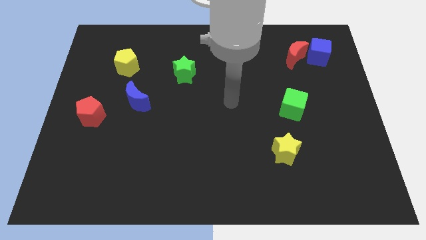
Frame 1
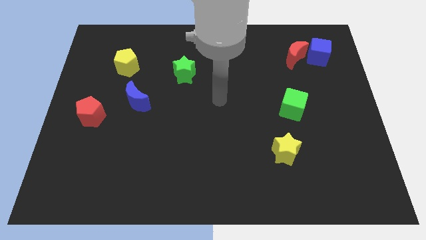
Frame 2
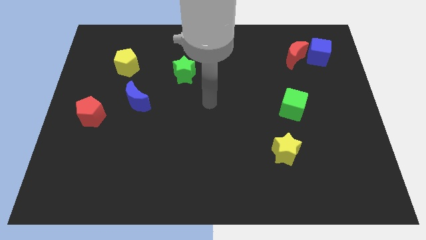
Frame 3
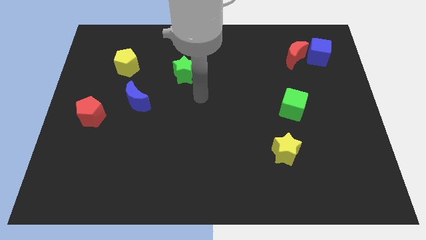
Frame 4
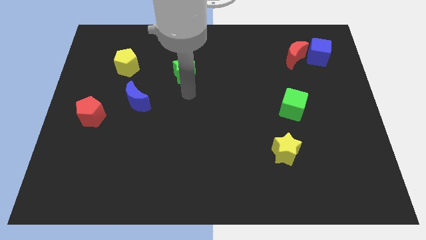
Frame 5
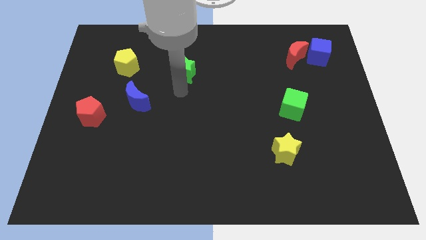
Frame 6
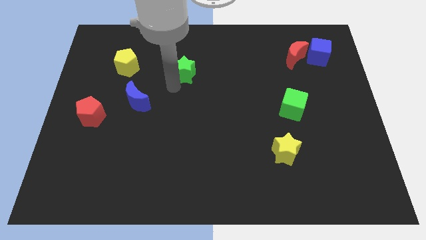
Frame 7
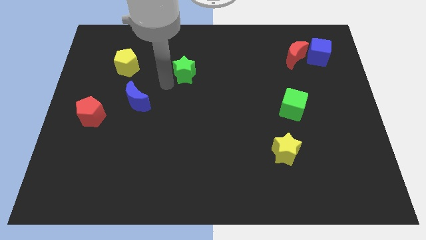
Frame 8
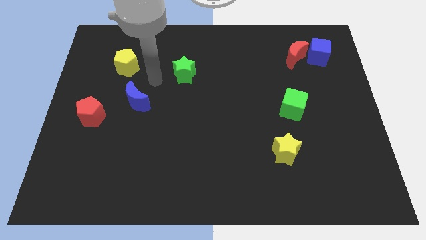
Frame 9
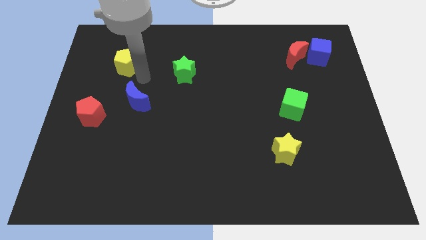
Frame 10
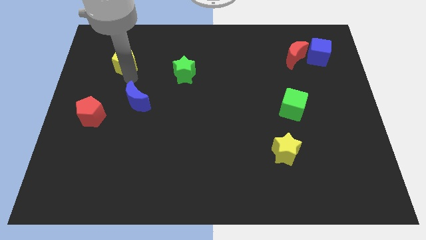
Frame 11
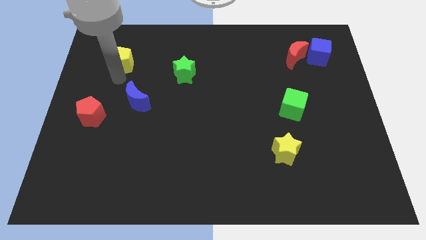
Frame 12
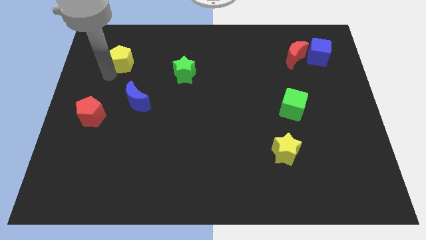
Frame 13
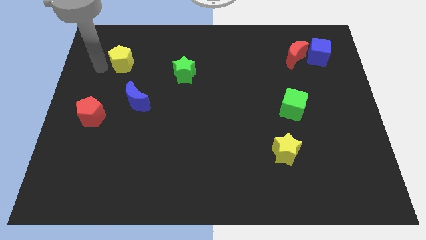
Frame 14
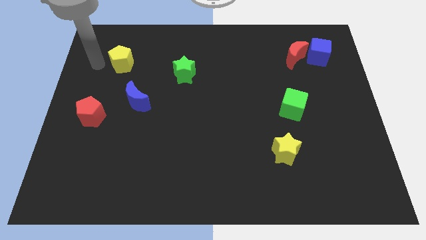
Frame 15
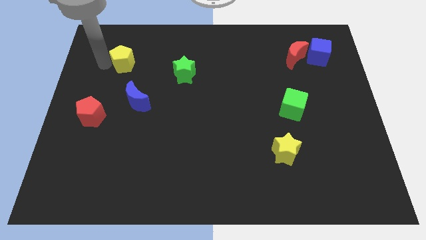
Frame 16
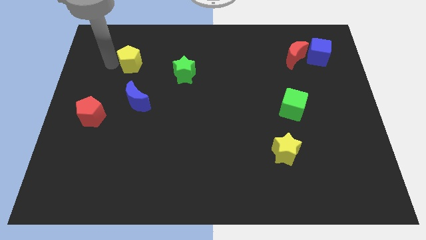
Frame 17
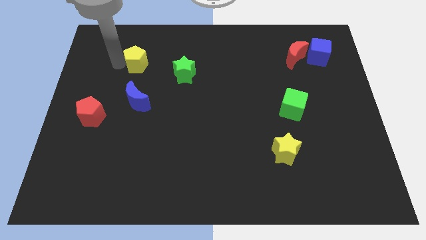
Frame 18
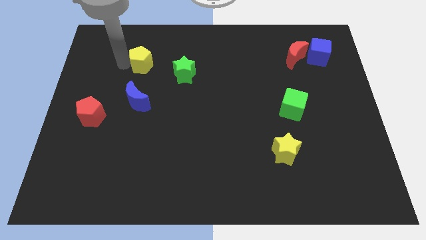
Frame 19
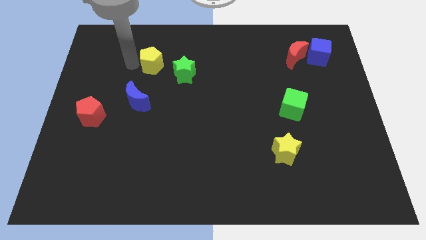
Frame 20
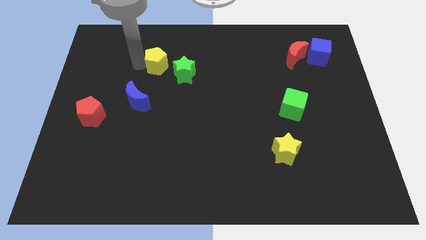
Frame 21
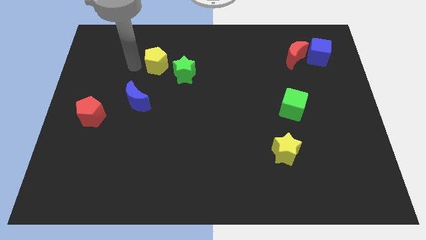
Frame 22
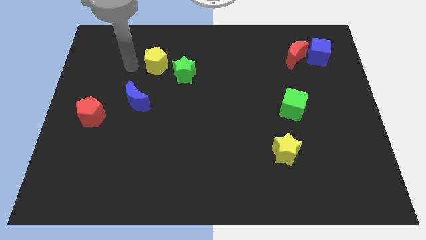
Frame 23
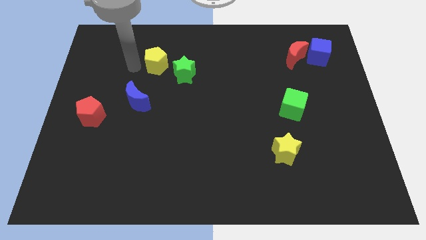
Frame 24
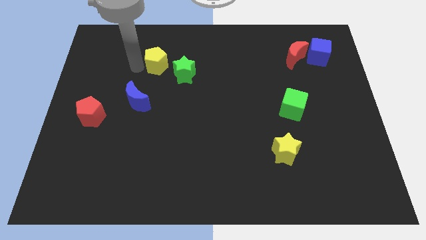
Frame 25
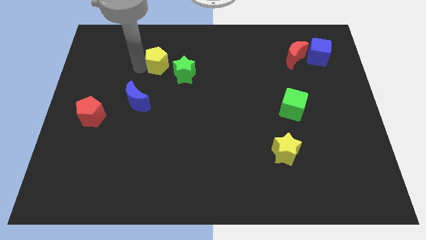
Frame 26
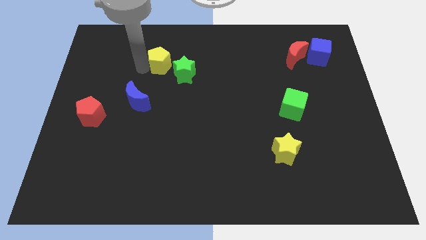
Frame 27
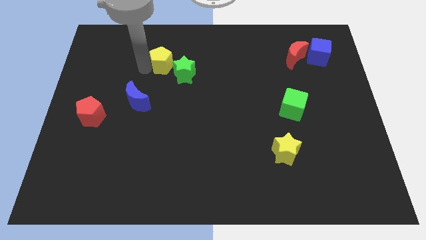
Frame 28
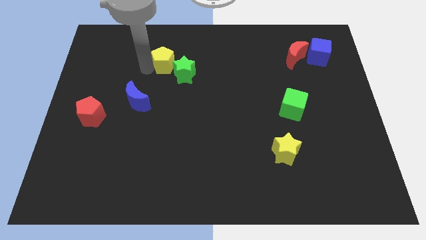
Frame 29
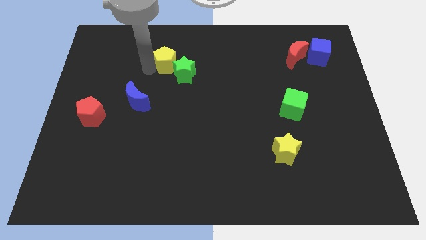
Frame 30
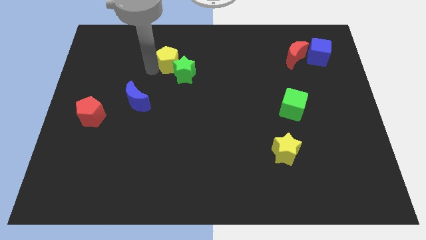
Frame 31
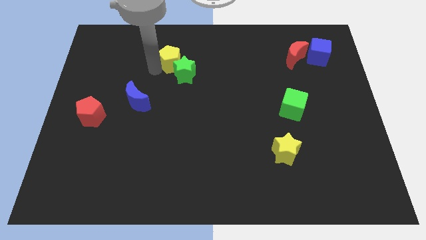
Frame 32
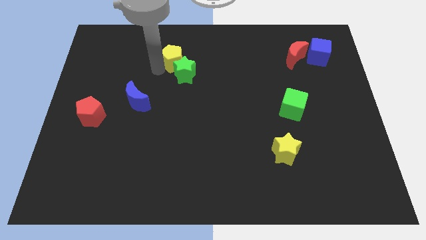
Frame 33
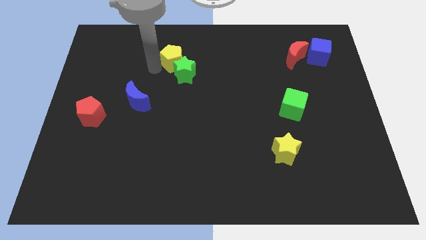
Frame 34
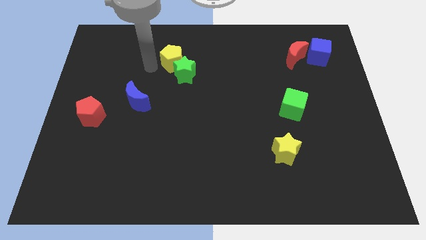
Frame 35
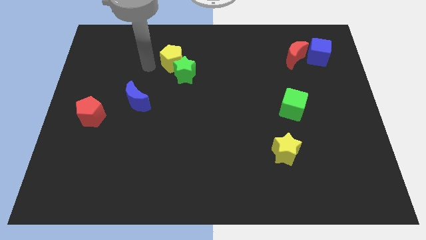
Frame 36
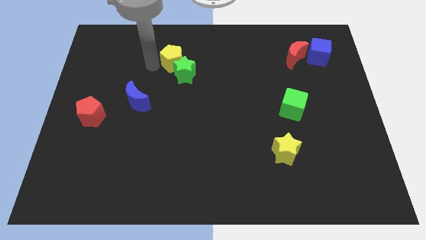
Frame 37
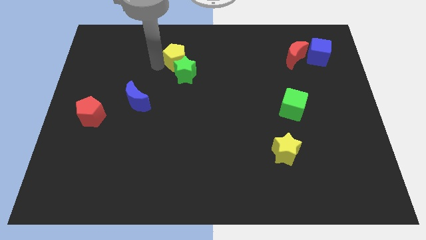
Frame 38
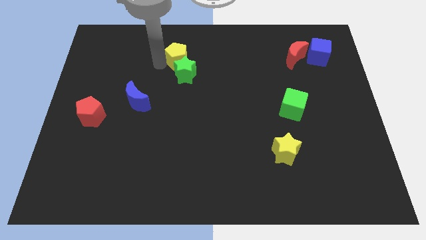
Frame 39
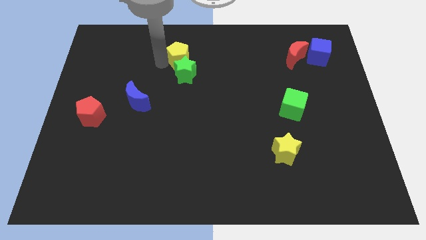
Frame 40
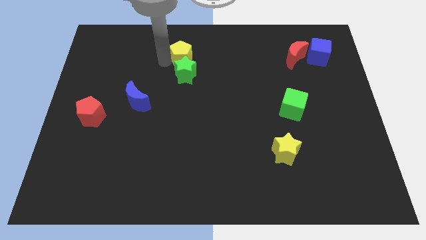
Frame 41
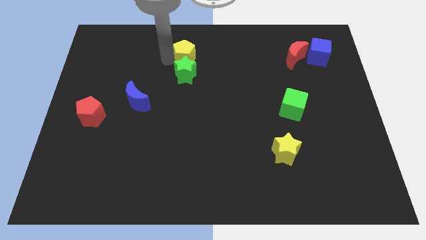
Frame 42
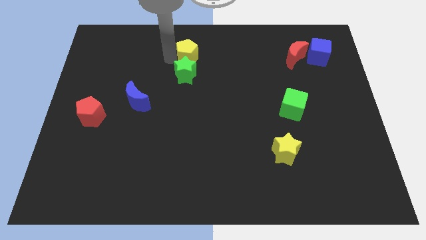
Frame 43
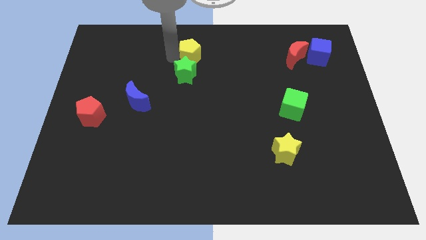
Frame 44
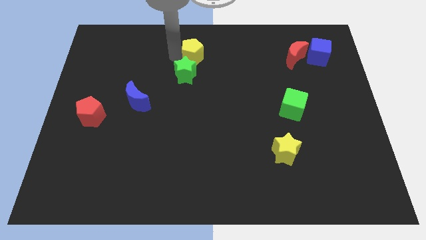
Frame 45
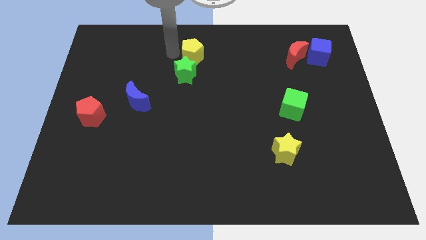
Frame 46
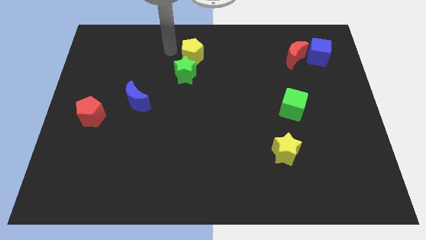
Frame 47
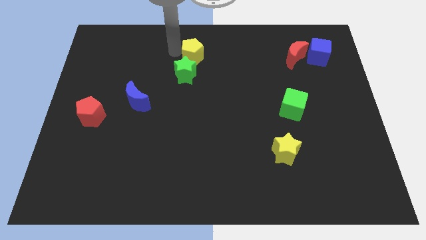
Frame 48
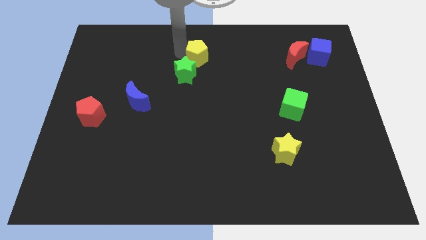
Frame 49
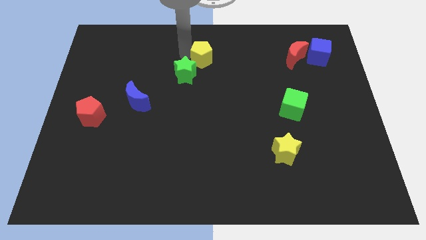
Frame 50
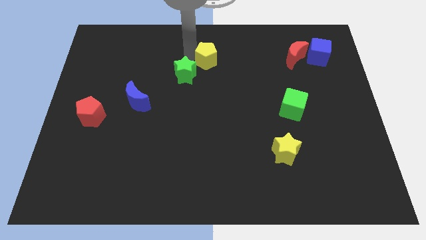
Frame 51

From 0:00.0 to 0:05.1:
move the yellow pentagon right

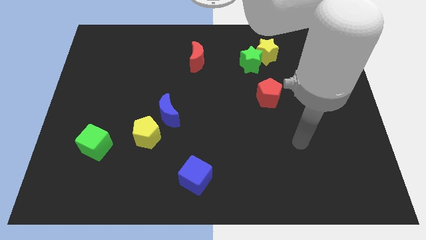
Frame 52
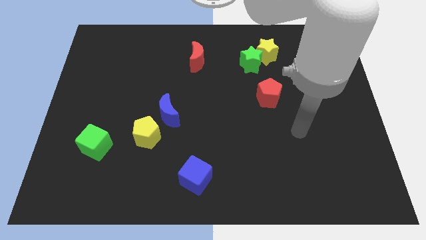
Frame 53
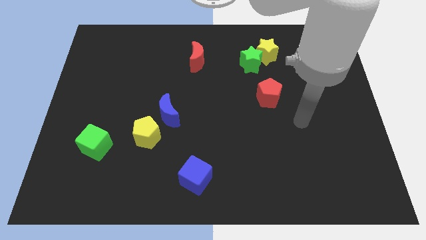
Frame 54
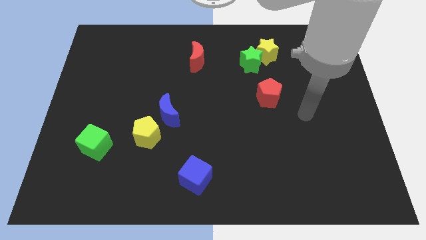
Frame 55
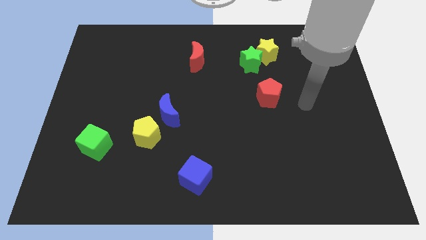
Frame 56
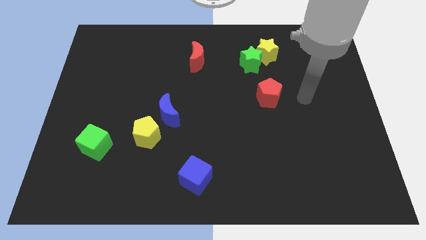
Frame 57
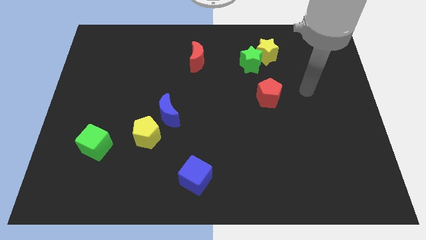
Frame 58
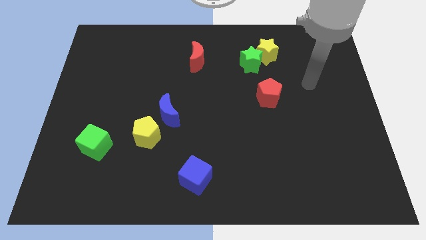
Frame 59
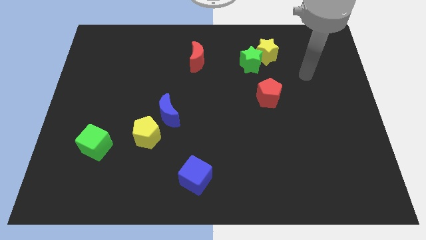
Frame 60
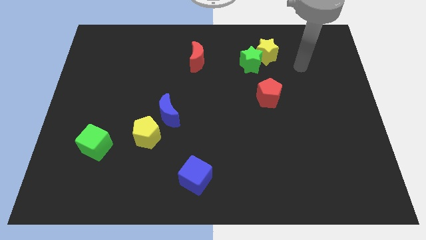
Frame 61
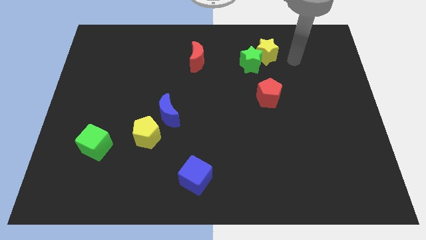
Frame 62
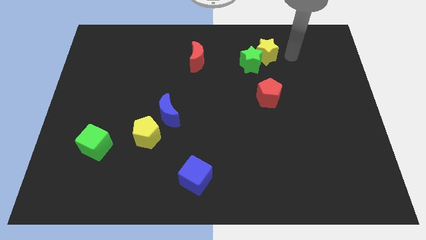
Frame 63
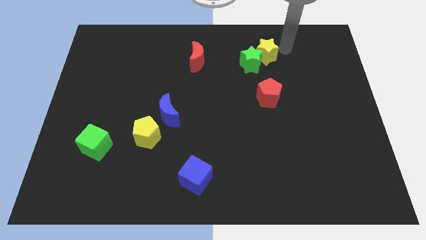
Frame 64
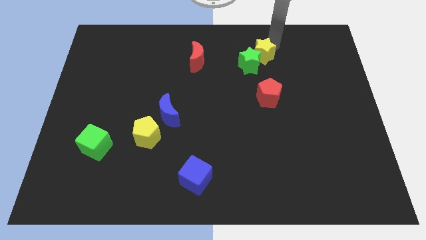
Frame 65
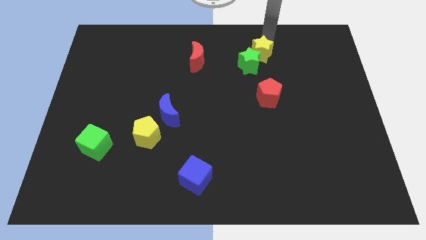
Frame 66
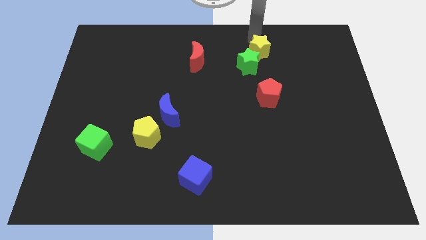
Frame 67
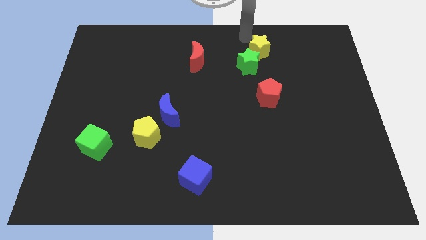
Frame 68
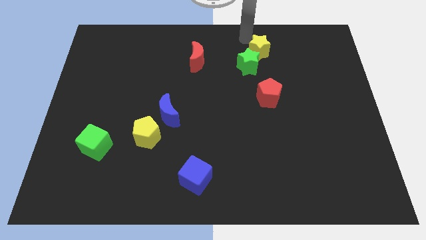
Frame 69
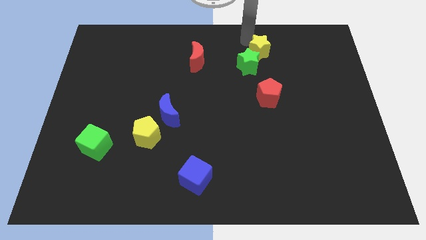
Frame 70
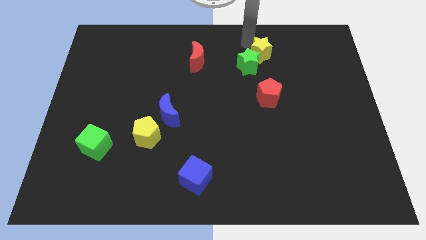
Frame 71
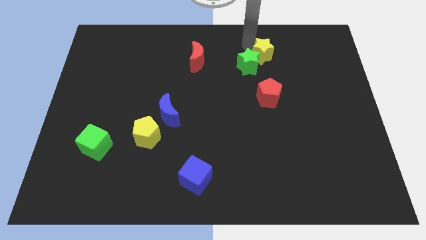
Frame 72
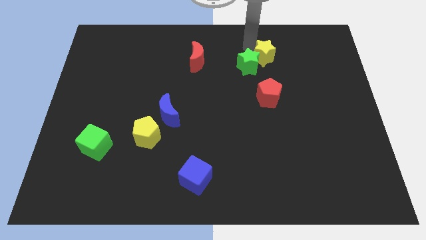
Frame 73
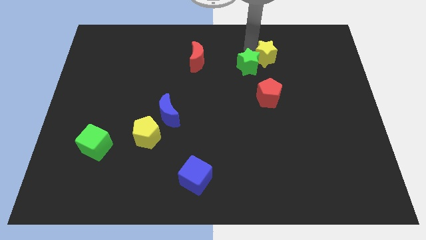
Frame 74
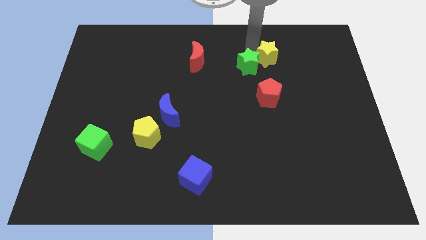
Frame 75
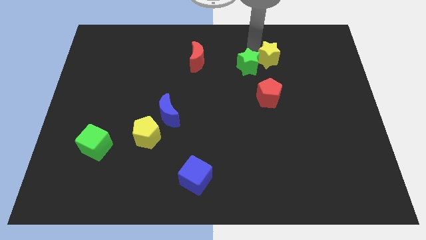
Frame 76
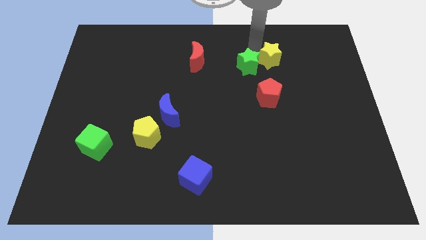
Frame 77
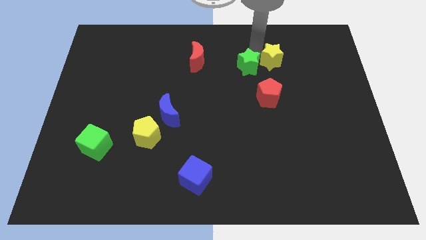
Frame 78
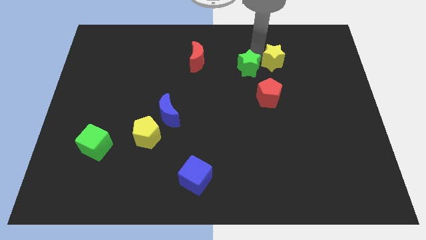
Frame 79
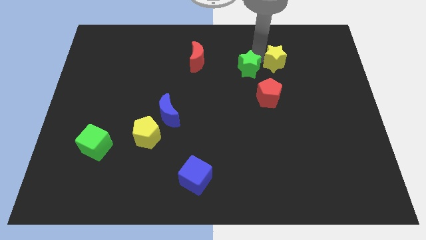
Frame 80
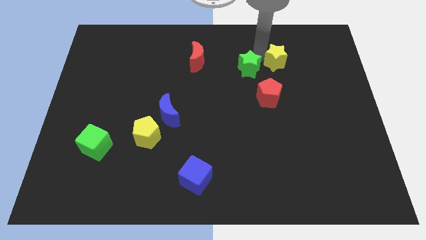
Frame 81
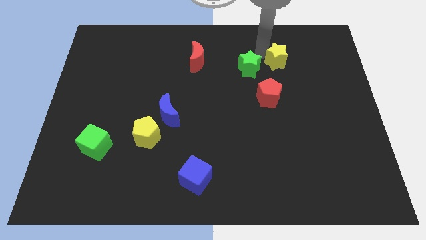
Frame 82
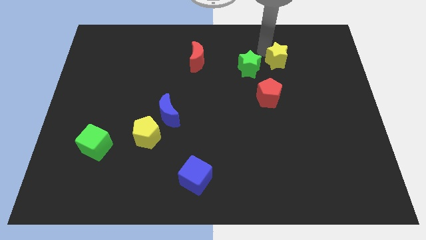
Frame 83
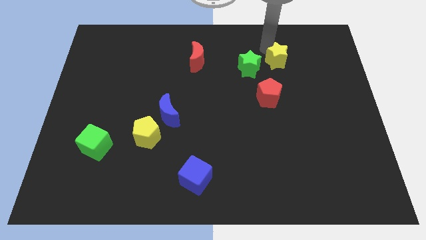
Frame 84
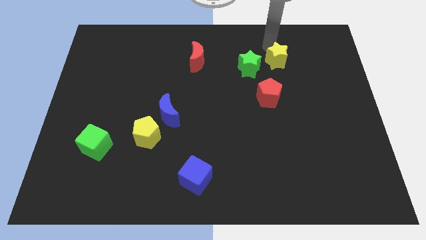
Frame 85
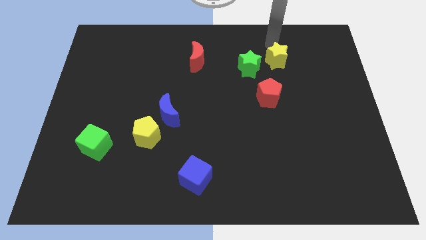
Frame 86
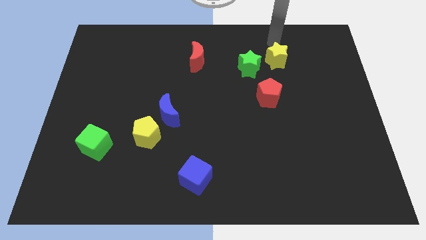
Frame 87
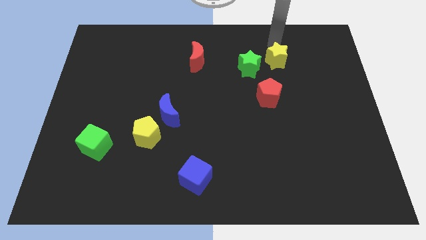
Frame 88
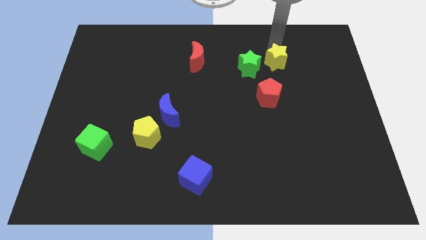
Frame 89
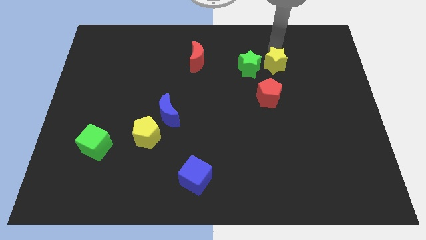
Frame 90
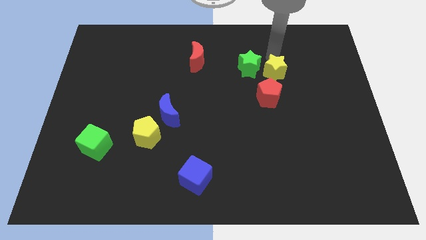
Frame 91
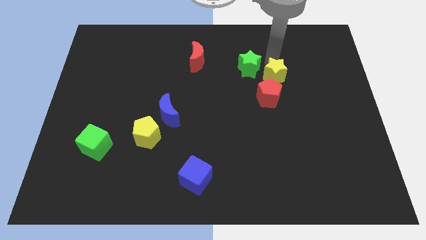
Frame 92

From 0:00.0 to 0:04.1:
push the yellow star downwards a little bit
